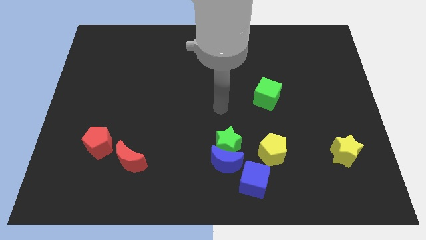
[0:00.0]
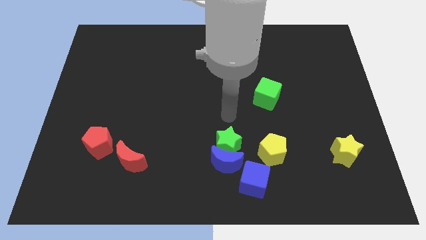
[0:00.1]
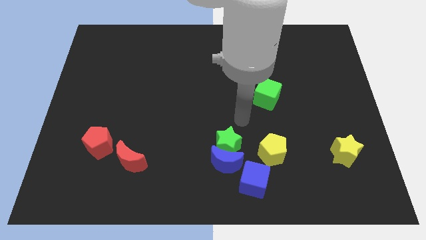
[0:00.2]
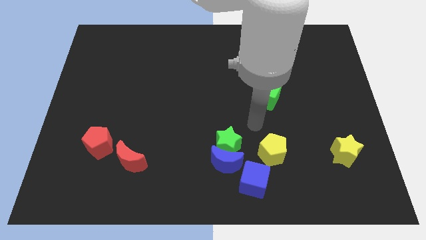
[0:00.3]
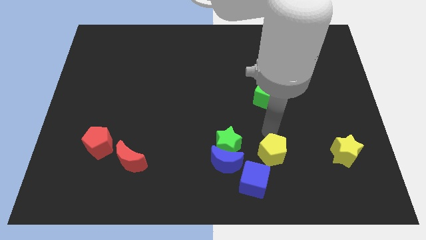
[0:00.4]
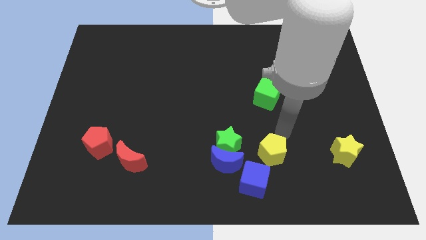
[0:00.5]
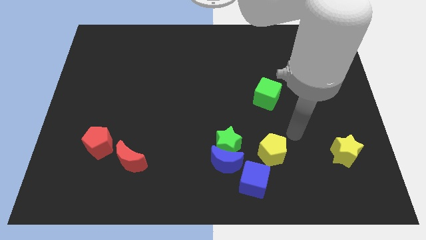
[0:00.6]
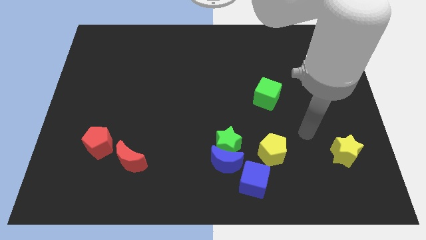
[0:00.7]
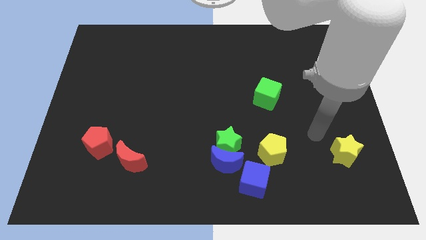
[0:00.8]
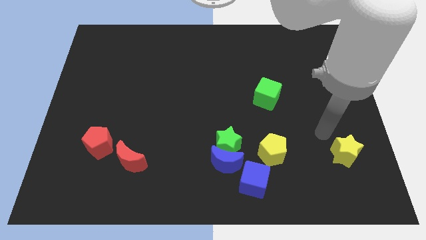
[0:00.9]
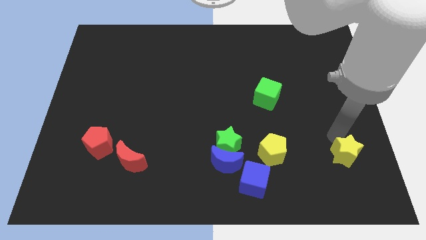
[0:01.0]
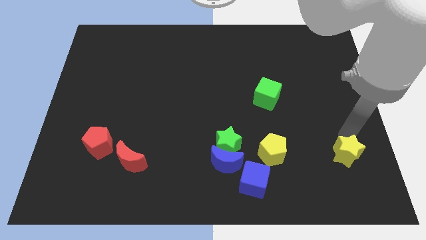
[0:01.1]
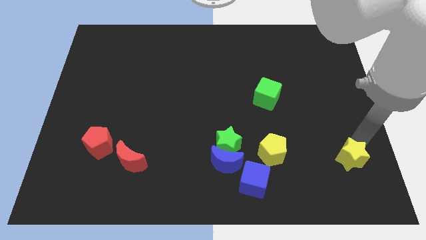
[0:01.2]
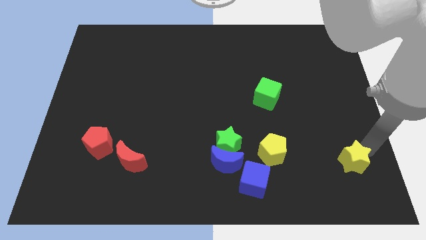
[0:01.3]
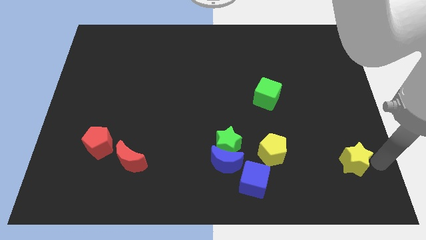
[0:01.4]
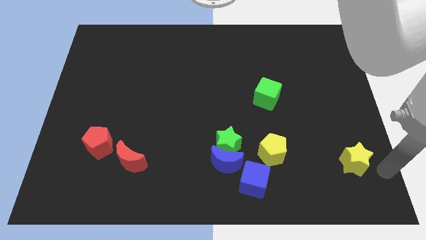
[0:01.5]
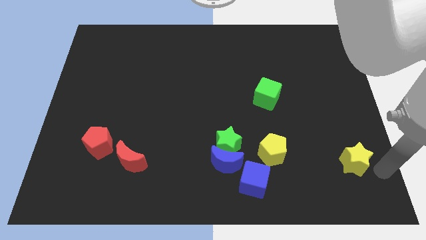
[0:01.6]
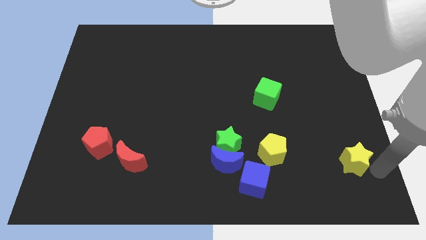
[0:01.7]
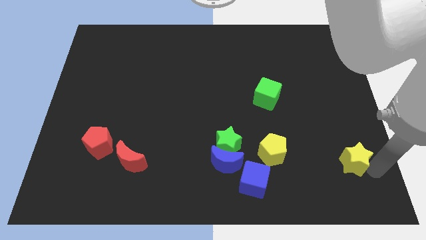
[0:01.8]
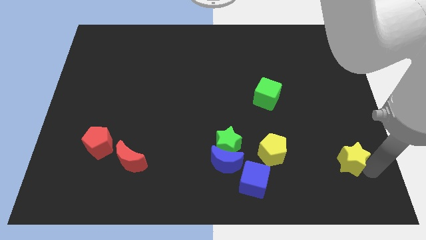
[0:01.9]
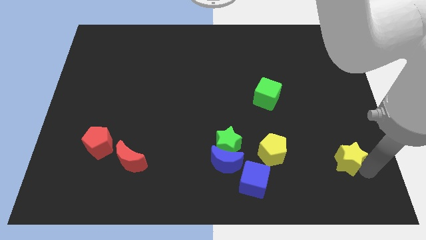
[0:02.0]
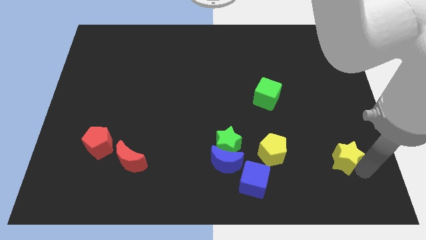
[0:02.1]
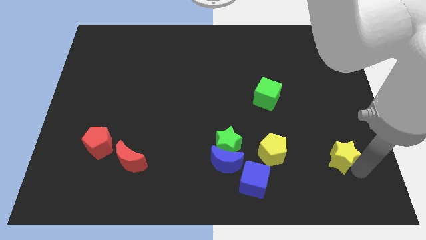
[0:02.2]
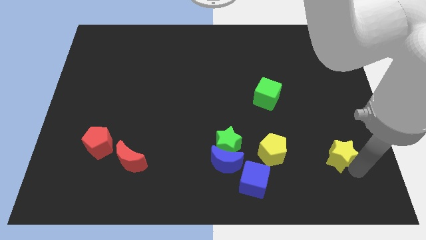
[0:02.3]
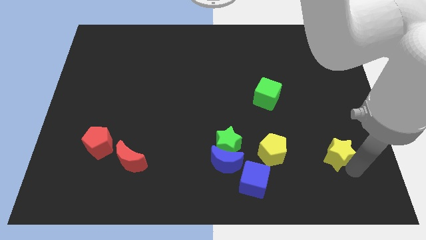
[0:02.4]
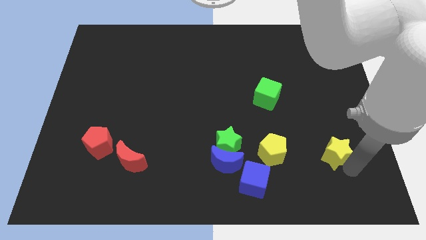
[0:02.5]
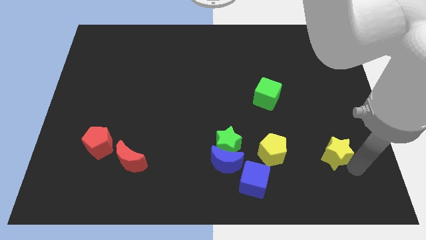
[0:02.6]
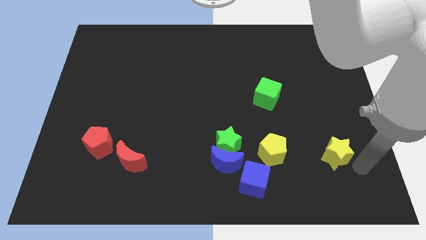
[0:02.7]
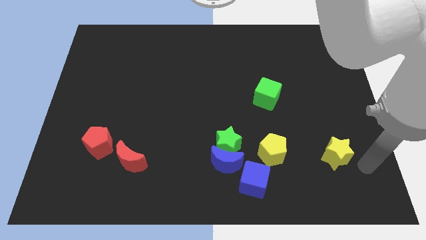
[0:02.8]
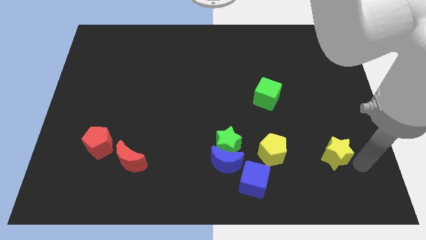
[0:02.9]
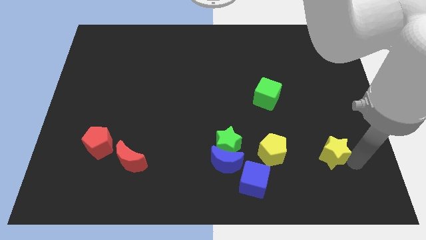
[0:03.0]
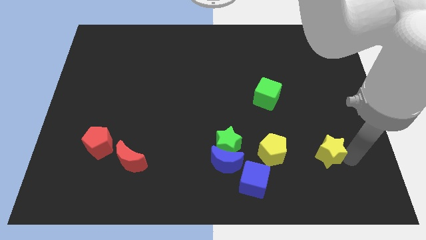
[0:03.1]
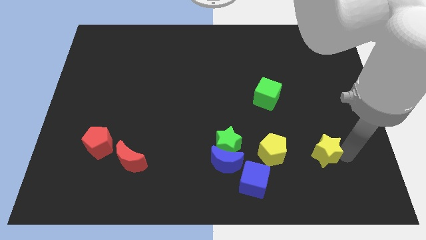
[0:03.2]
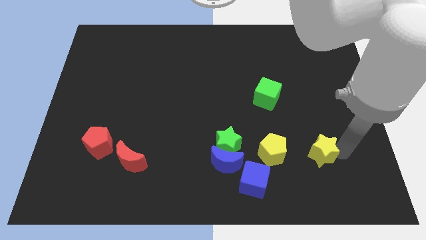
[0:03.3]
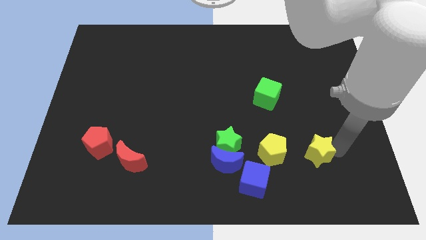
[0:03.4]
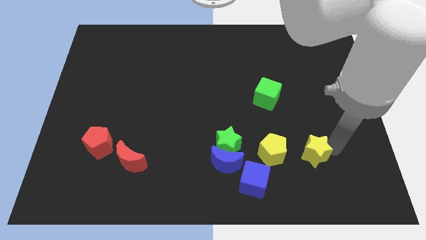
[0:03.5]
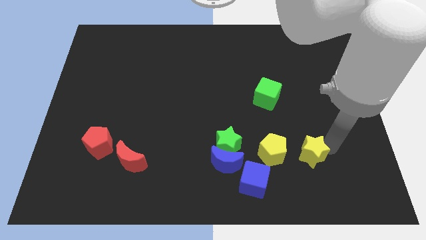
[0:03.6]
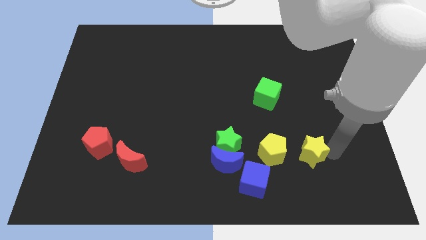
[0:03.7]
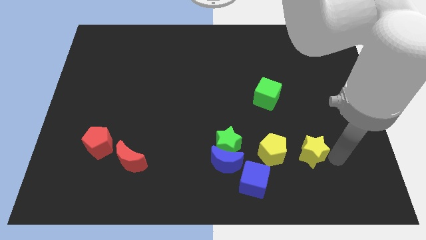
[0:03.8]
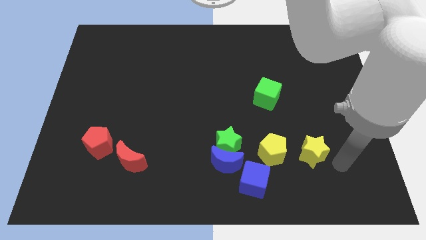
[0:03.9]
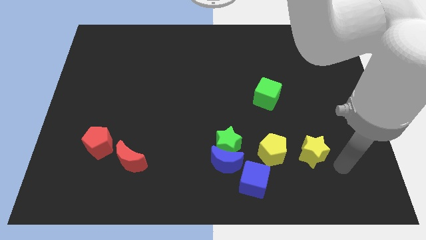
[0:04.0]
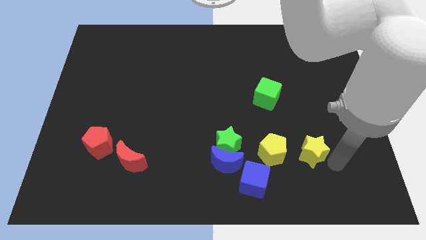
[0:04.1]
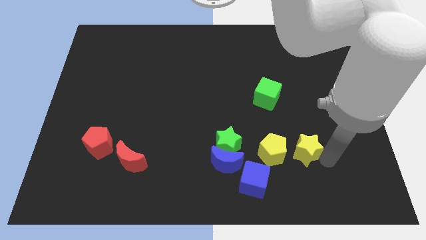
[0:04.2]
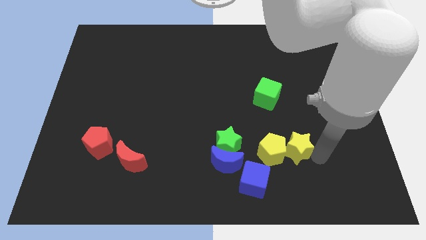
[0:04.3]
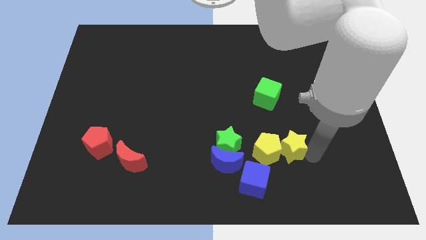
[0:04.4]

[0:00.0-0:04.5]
slide the yellow star to the right of the blue moon

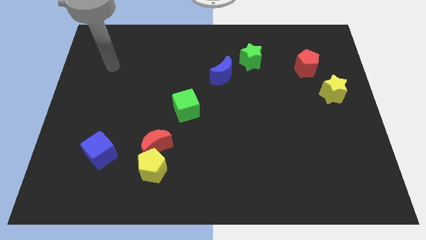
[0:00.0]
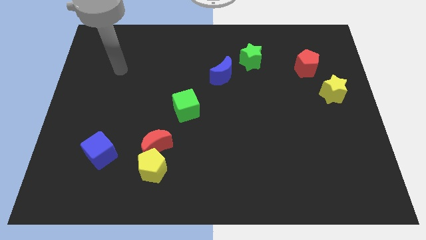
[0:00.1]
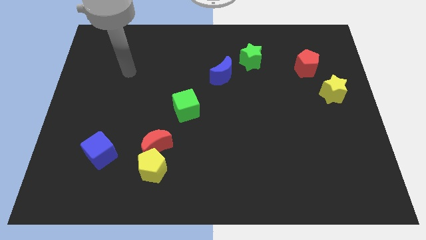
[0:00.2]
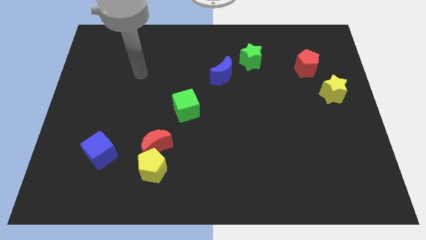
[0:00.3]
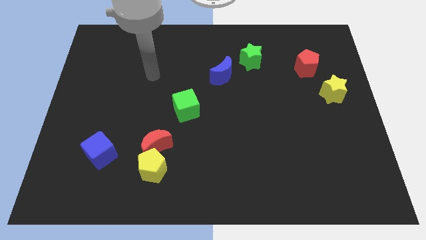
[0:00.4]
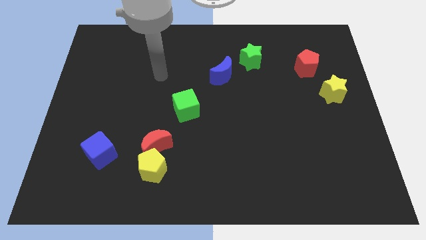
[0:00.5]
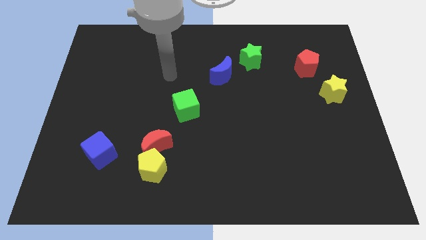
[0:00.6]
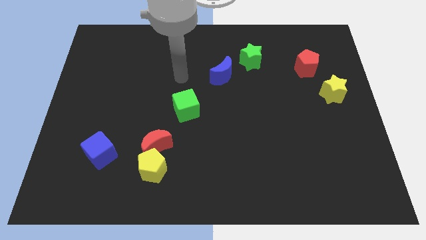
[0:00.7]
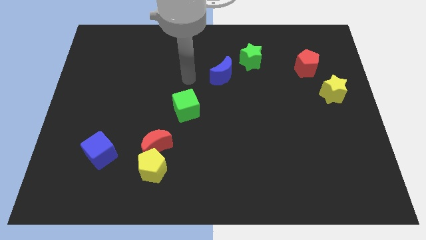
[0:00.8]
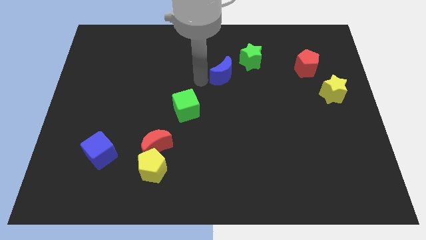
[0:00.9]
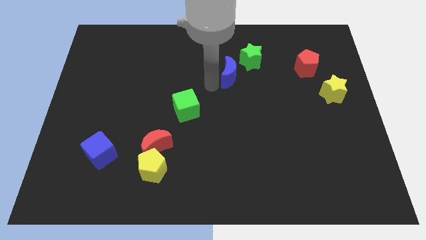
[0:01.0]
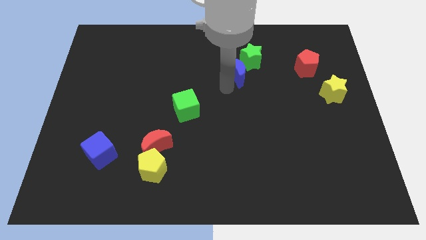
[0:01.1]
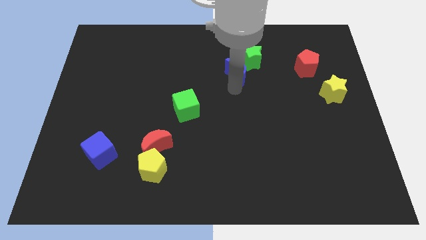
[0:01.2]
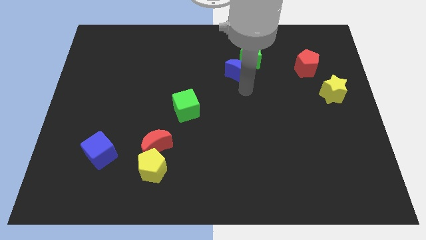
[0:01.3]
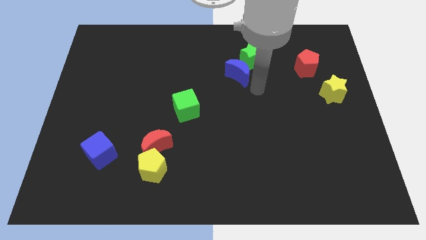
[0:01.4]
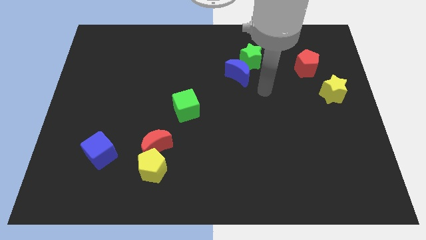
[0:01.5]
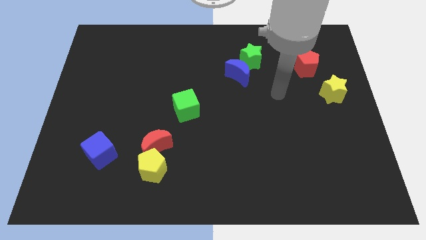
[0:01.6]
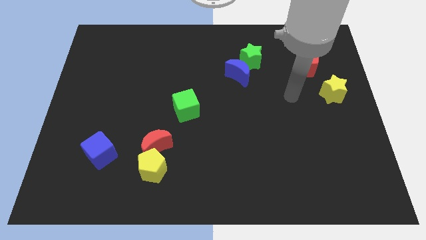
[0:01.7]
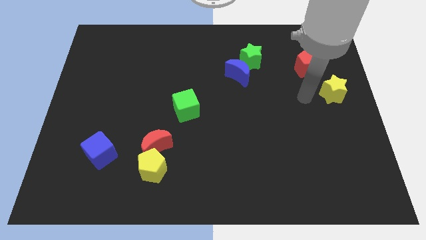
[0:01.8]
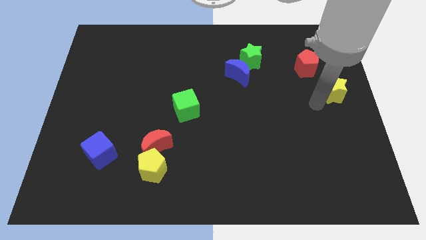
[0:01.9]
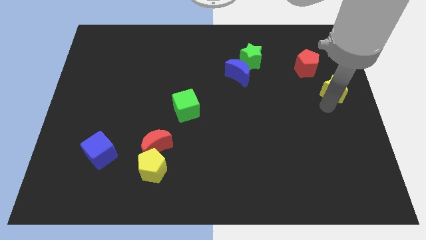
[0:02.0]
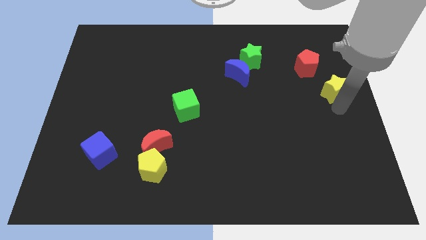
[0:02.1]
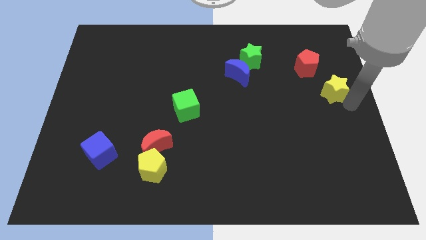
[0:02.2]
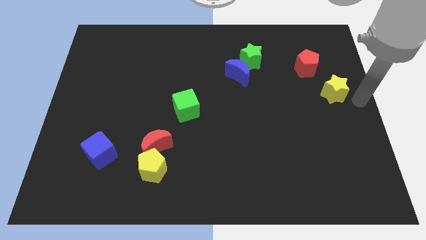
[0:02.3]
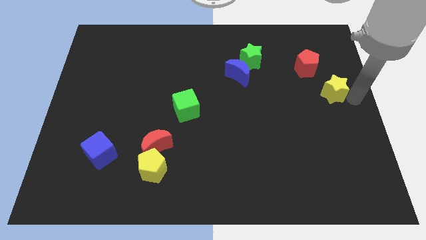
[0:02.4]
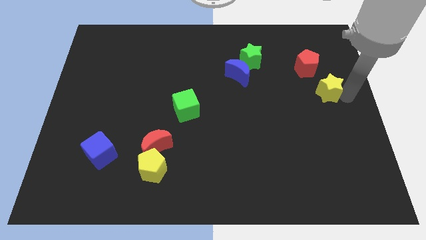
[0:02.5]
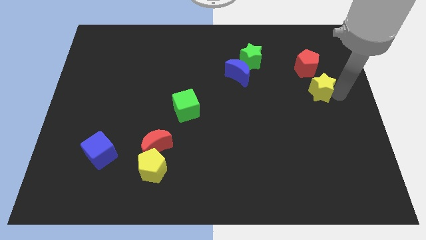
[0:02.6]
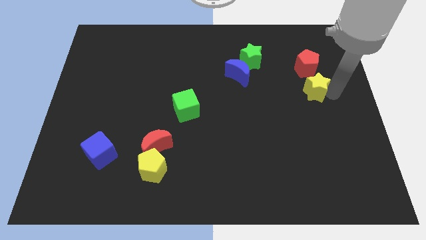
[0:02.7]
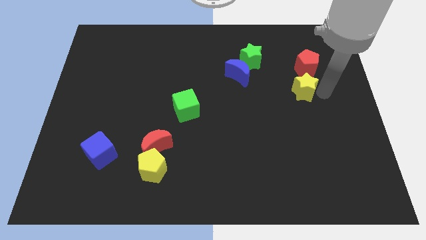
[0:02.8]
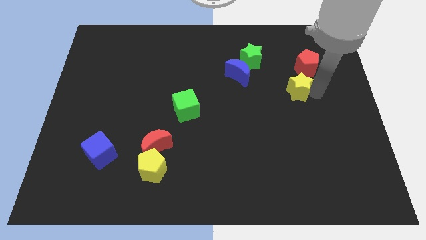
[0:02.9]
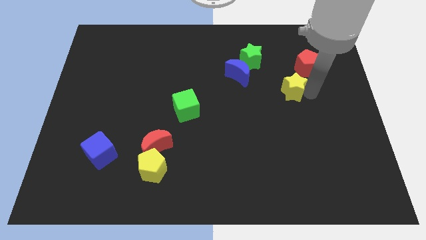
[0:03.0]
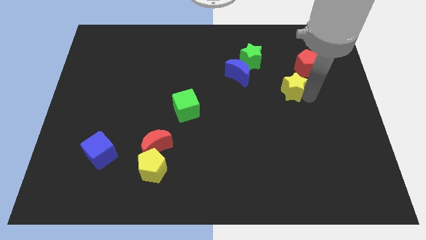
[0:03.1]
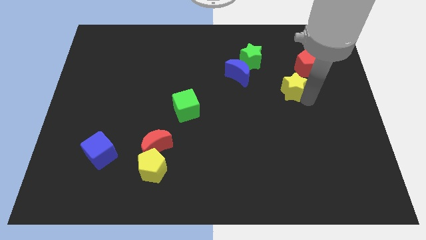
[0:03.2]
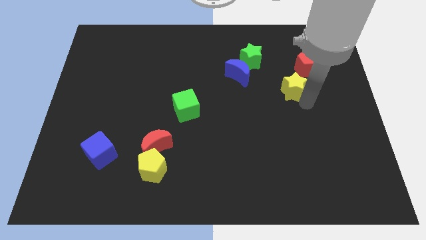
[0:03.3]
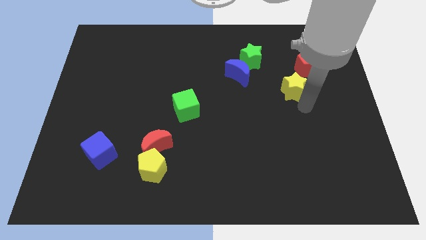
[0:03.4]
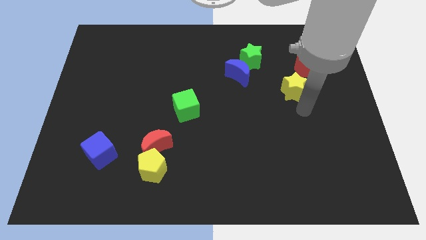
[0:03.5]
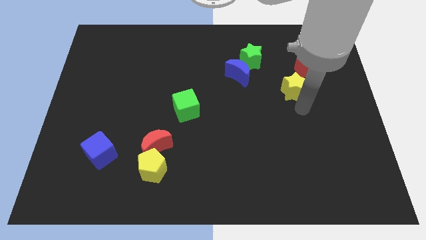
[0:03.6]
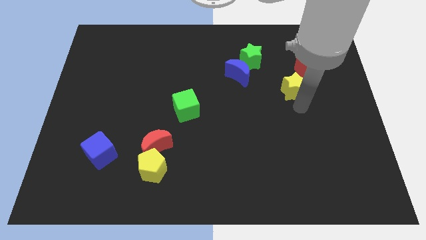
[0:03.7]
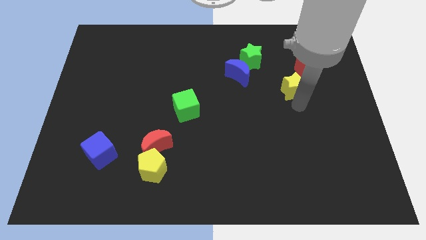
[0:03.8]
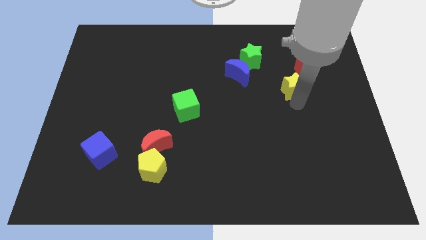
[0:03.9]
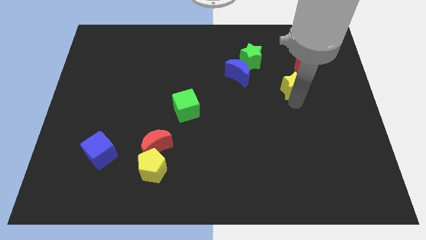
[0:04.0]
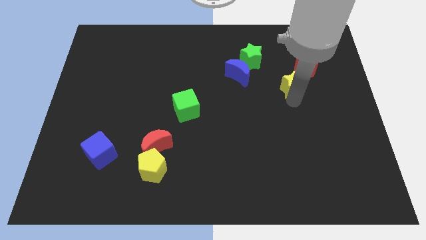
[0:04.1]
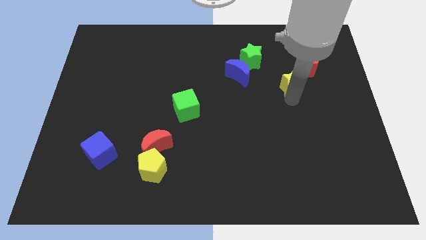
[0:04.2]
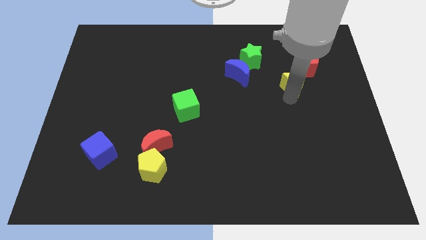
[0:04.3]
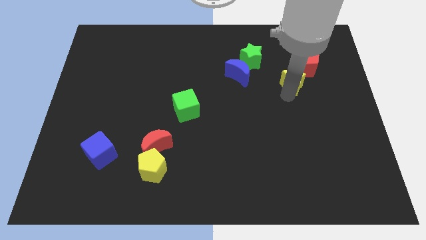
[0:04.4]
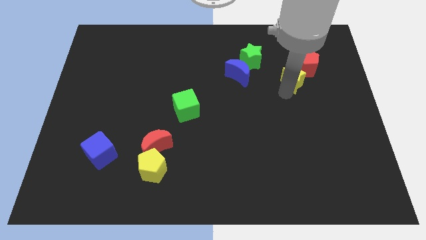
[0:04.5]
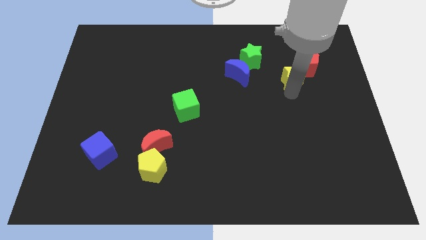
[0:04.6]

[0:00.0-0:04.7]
move the yellow star left of the red pentagon
